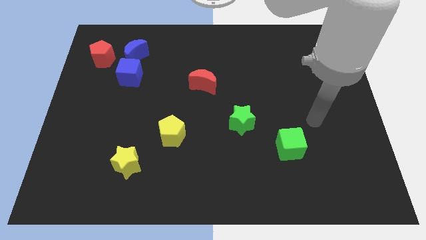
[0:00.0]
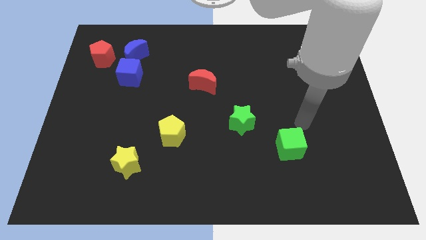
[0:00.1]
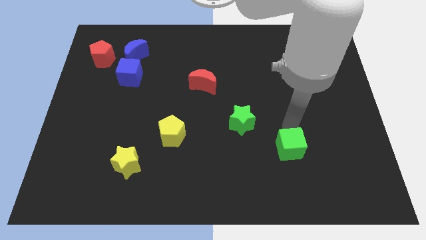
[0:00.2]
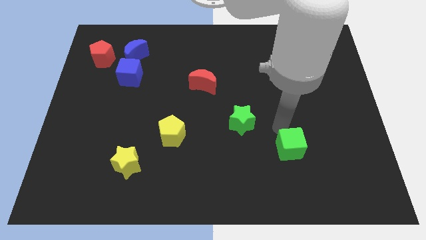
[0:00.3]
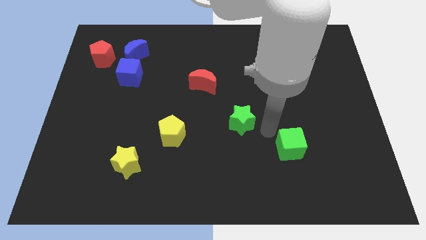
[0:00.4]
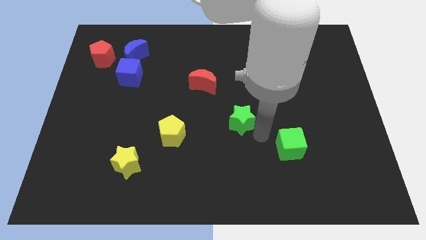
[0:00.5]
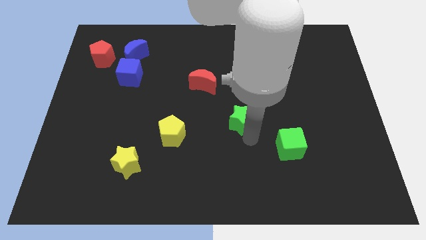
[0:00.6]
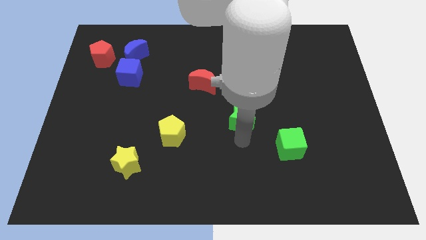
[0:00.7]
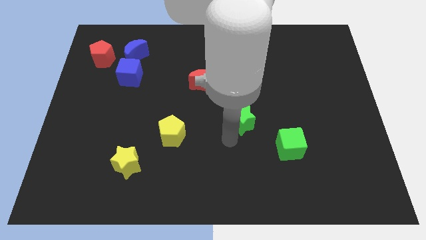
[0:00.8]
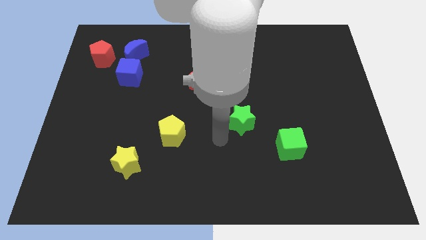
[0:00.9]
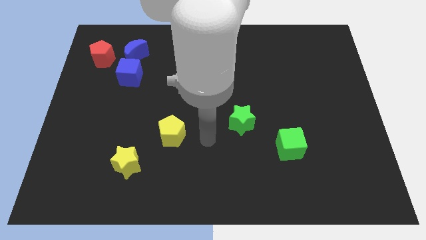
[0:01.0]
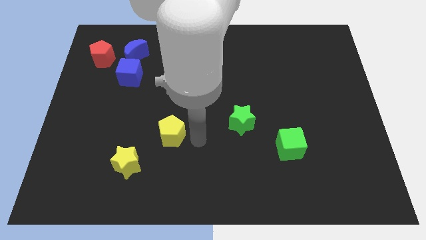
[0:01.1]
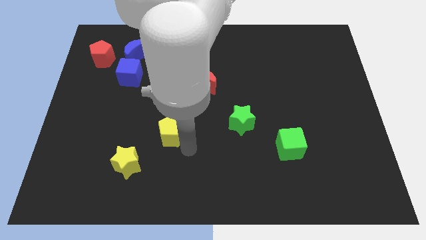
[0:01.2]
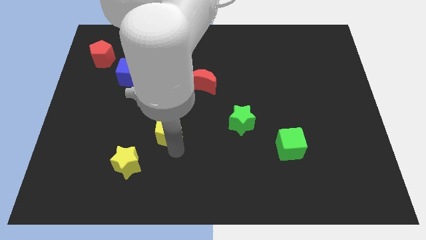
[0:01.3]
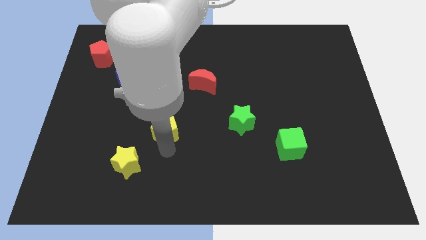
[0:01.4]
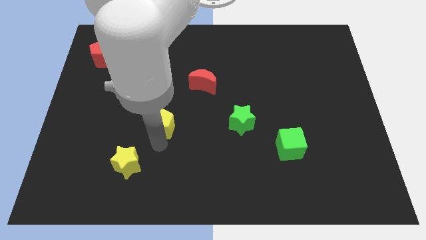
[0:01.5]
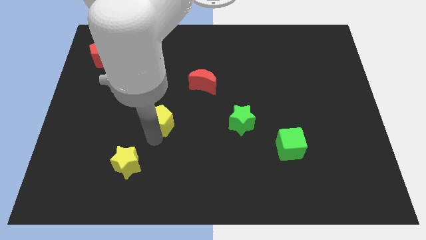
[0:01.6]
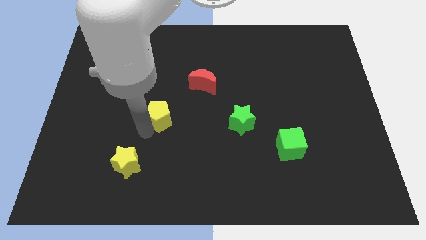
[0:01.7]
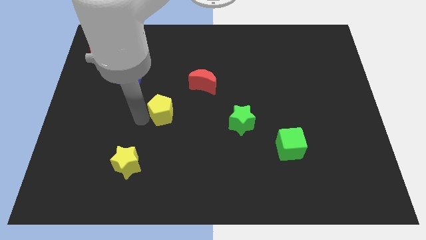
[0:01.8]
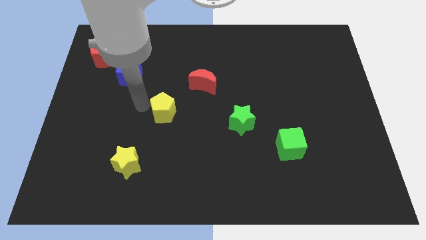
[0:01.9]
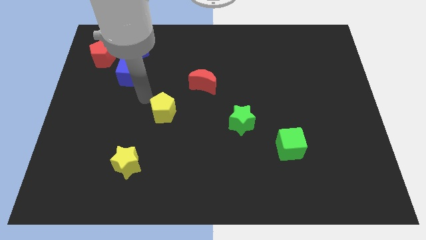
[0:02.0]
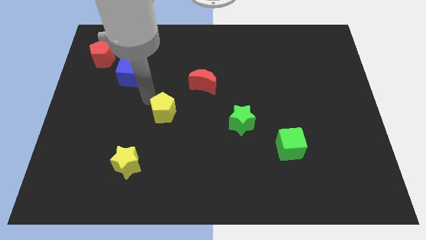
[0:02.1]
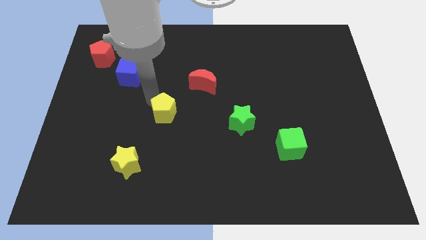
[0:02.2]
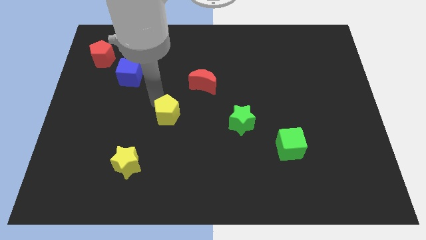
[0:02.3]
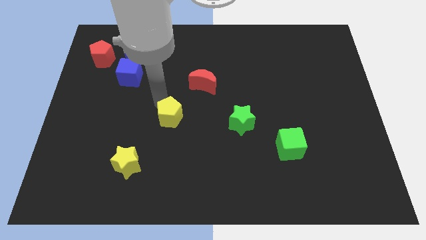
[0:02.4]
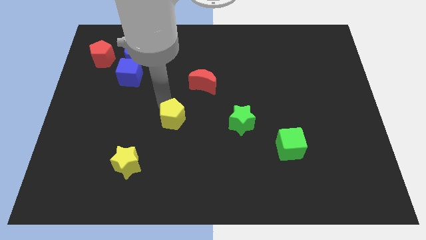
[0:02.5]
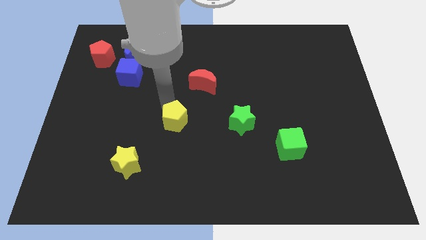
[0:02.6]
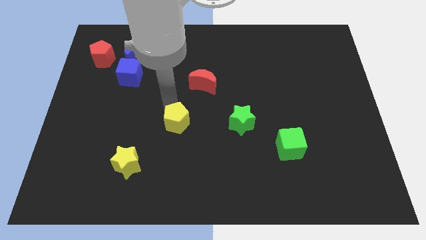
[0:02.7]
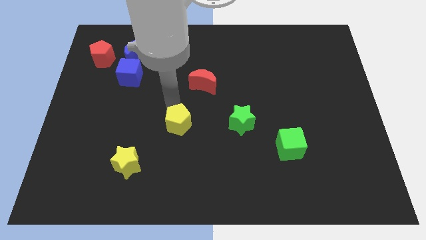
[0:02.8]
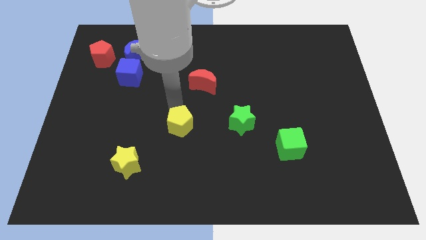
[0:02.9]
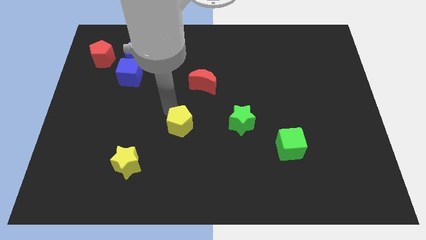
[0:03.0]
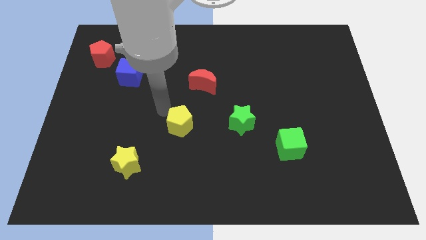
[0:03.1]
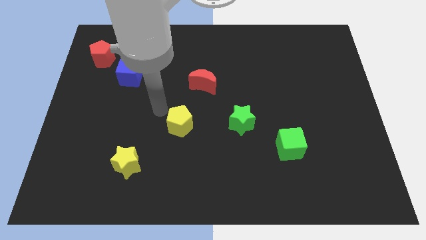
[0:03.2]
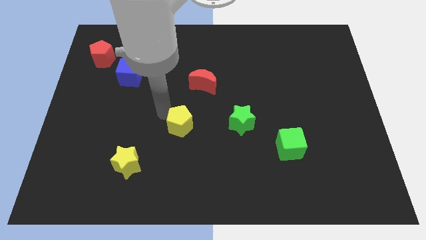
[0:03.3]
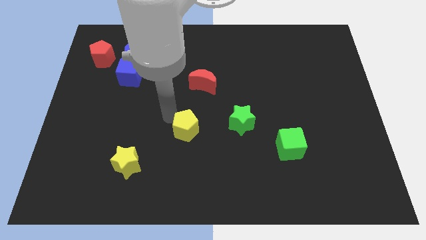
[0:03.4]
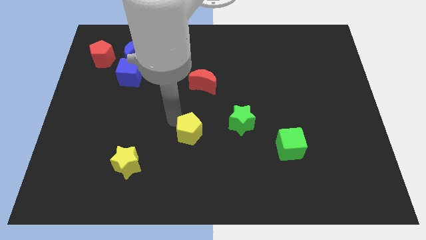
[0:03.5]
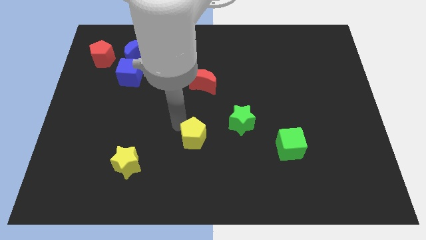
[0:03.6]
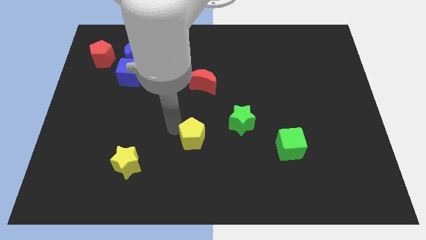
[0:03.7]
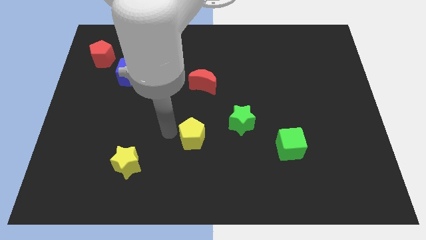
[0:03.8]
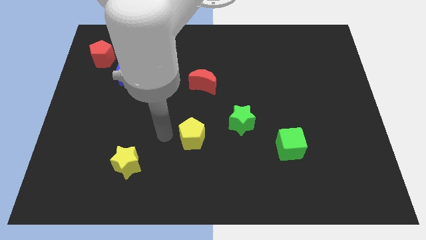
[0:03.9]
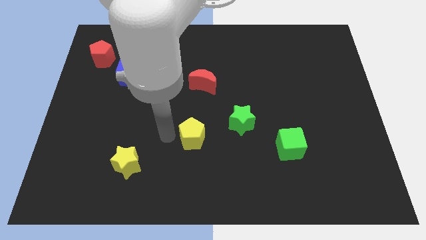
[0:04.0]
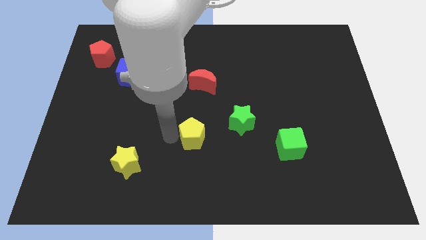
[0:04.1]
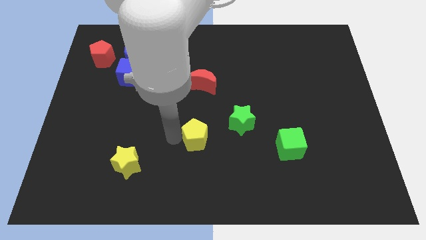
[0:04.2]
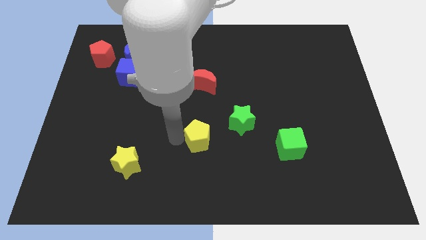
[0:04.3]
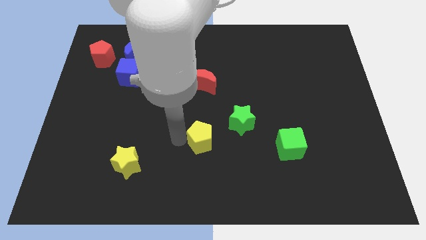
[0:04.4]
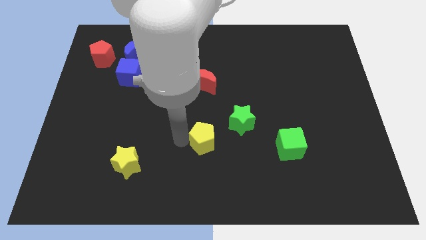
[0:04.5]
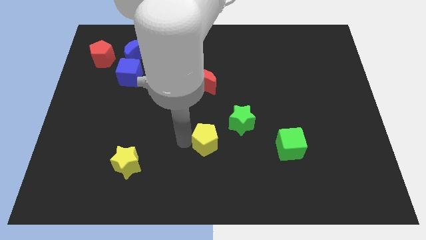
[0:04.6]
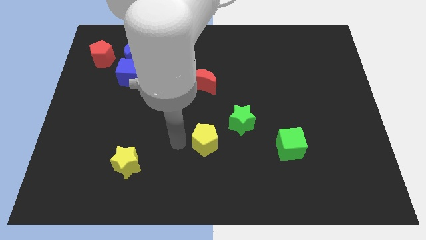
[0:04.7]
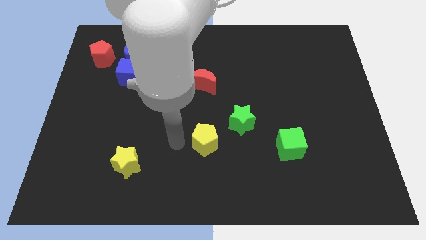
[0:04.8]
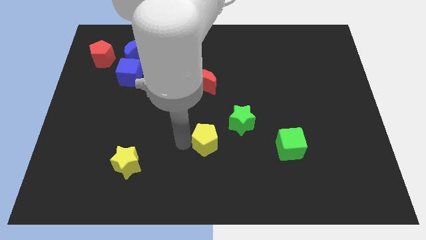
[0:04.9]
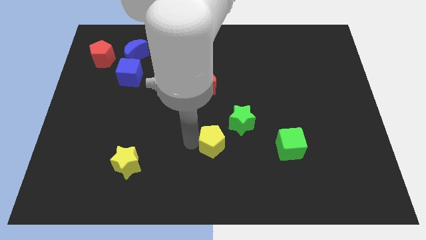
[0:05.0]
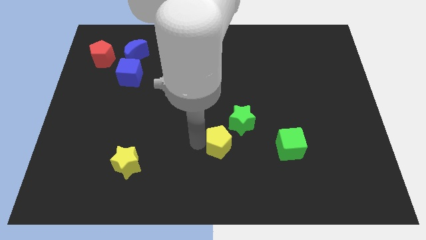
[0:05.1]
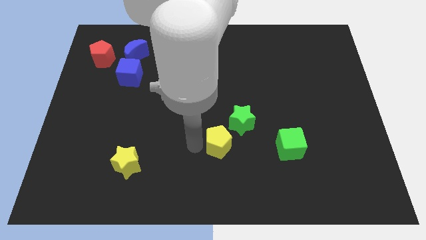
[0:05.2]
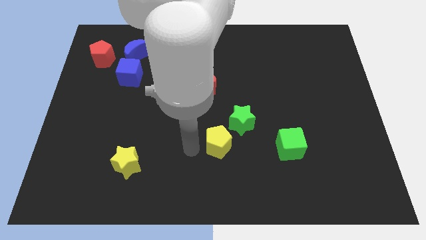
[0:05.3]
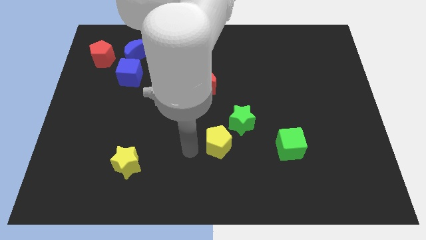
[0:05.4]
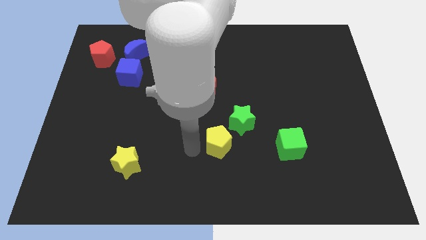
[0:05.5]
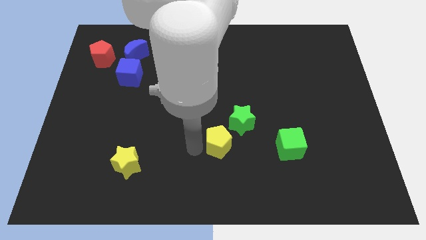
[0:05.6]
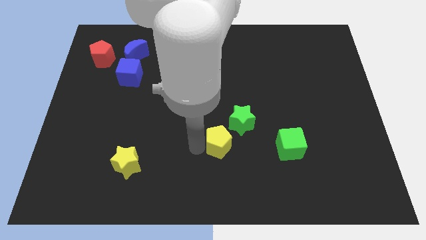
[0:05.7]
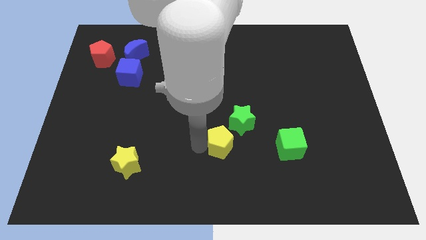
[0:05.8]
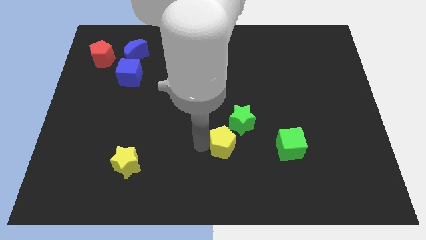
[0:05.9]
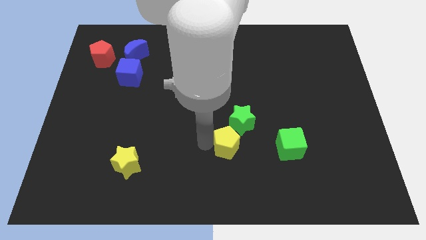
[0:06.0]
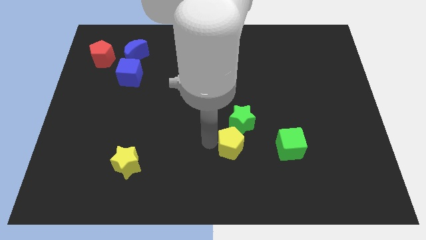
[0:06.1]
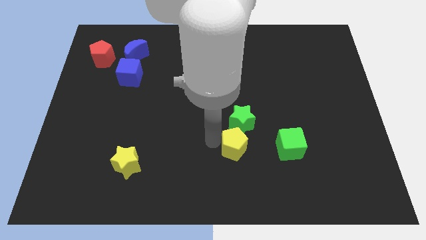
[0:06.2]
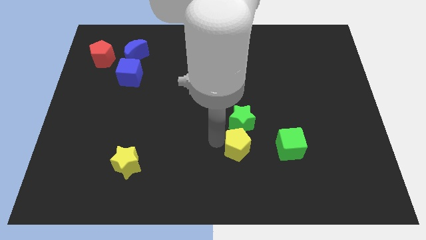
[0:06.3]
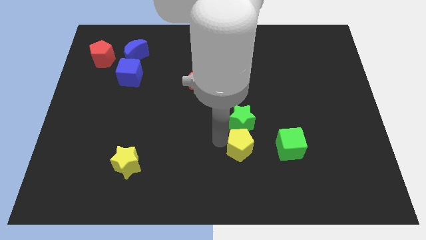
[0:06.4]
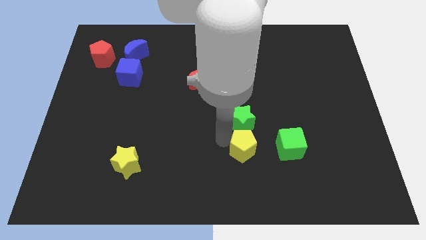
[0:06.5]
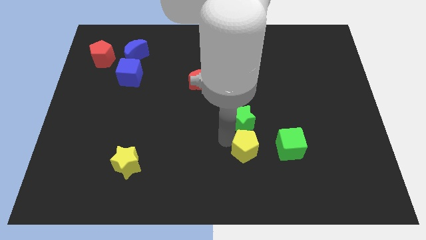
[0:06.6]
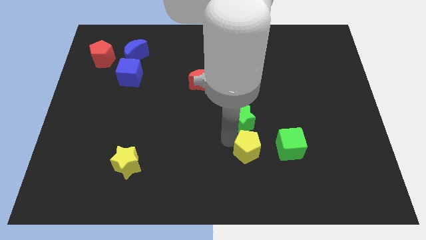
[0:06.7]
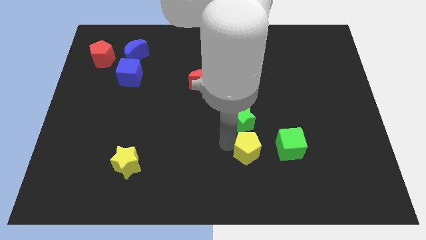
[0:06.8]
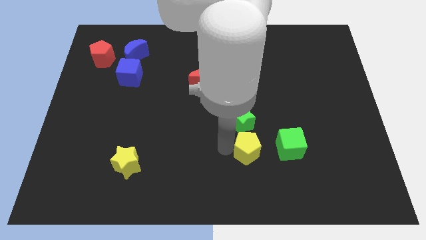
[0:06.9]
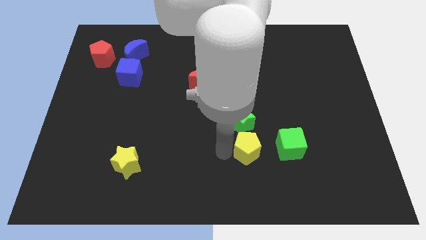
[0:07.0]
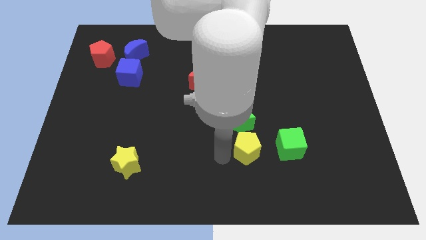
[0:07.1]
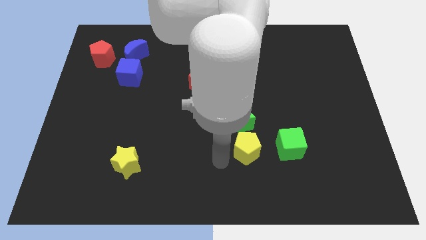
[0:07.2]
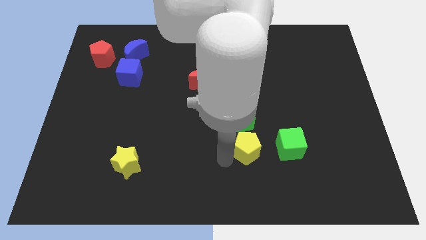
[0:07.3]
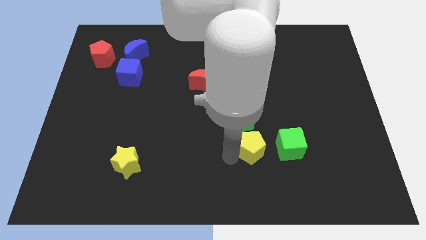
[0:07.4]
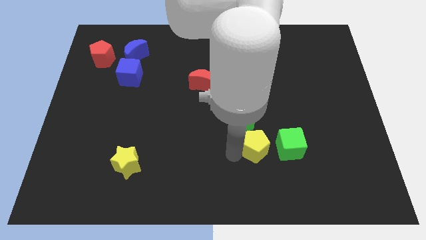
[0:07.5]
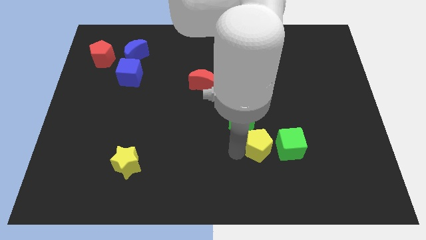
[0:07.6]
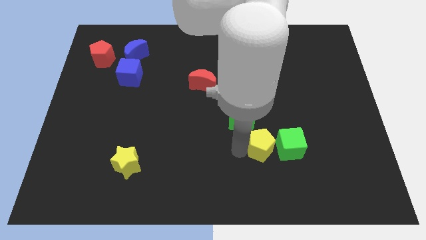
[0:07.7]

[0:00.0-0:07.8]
put the yellow pentagon close to the green cube
